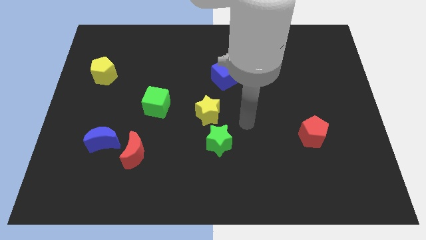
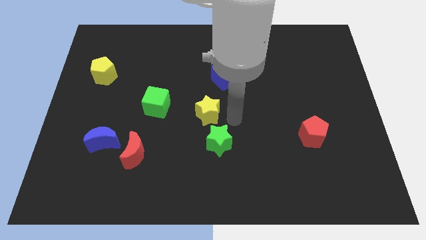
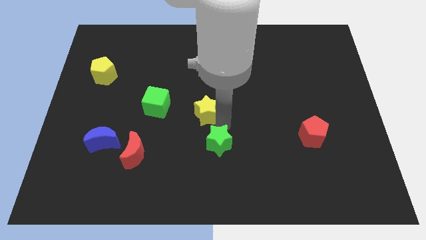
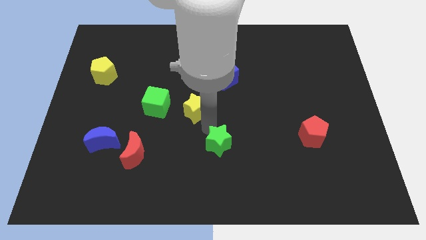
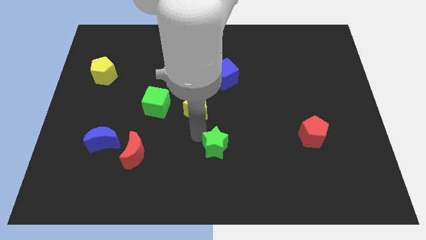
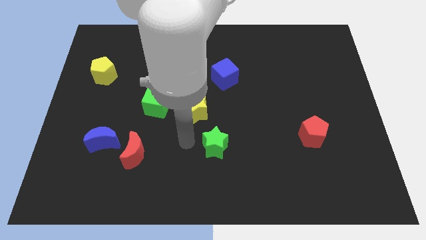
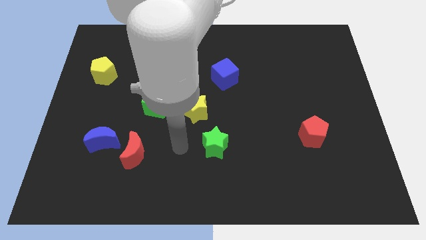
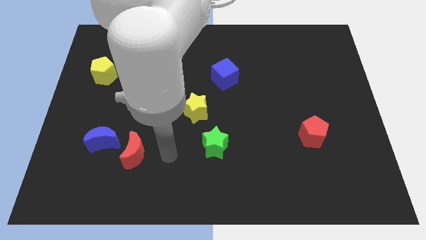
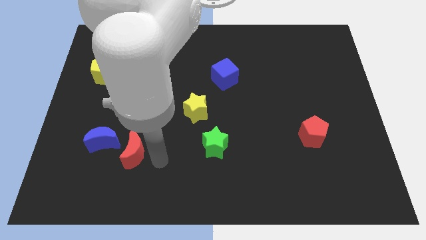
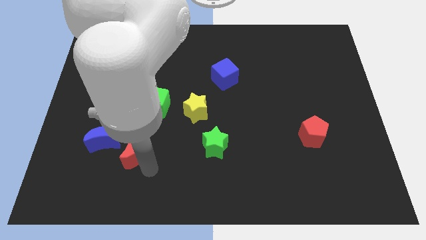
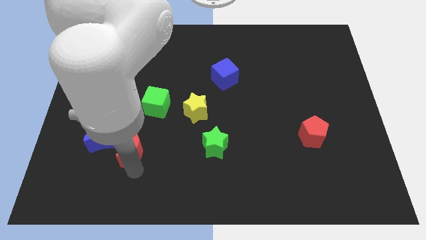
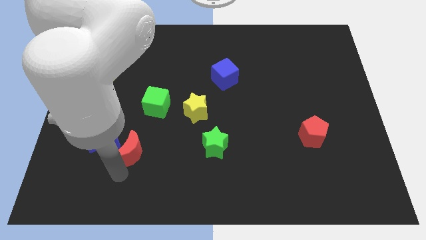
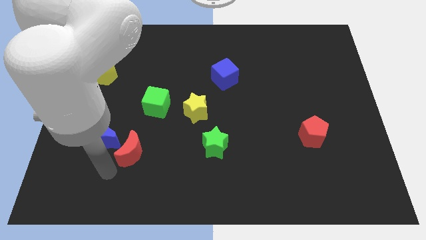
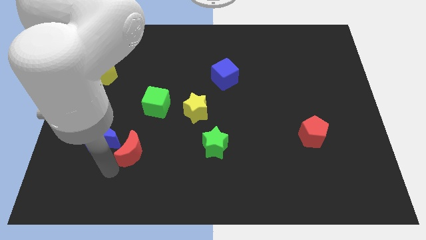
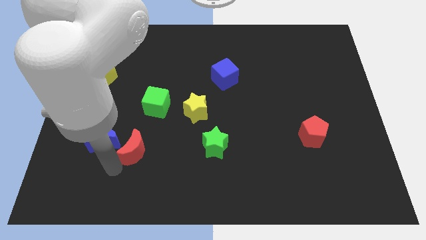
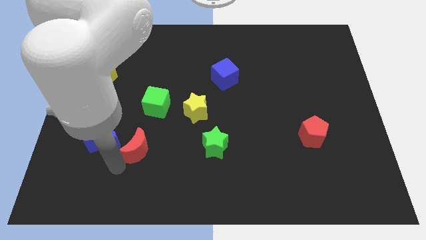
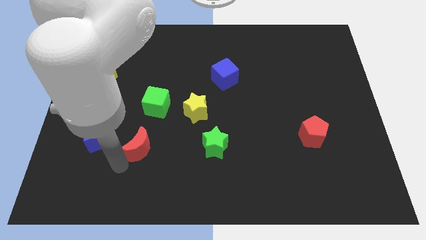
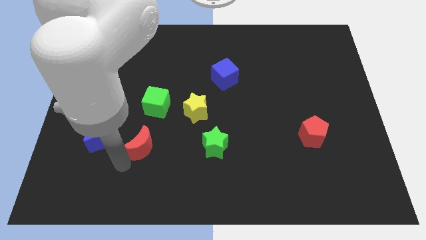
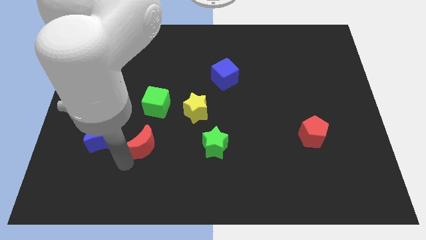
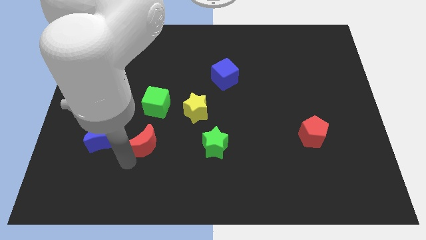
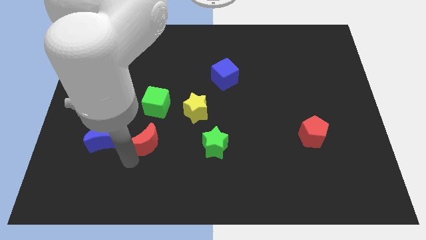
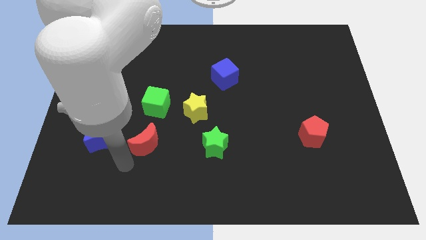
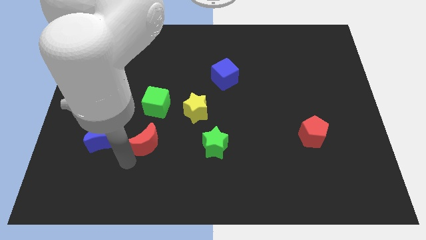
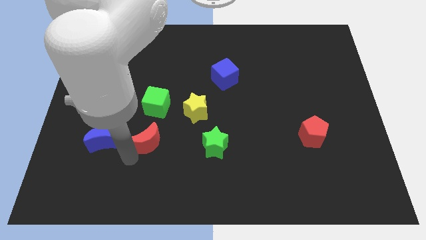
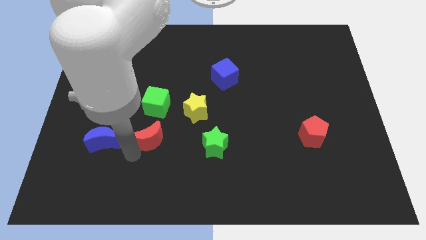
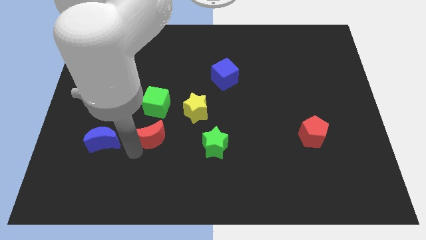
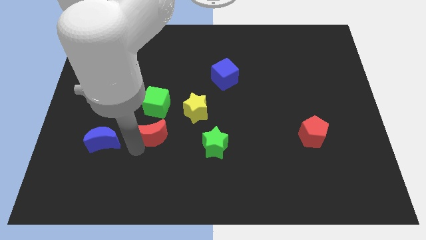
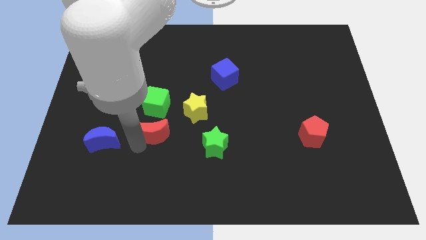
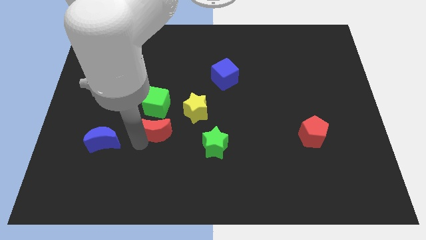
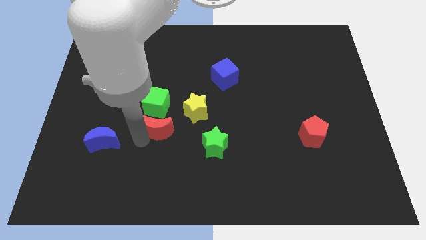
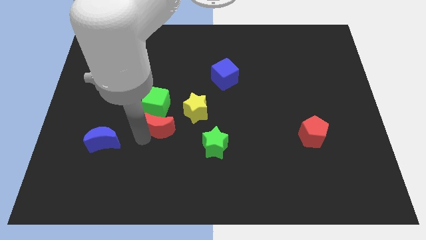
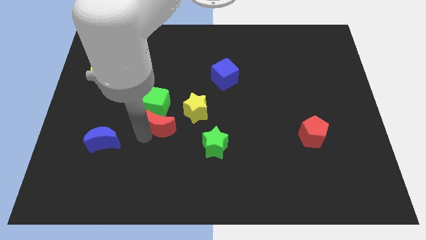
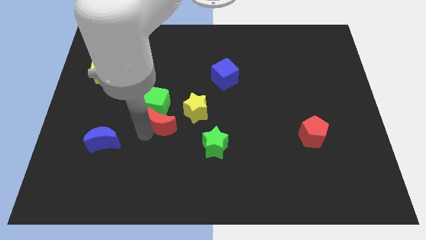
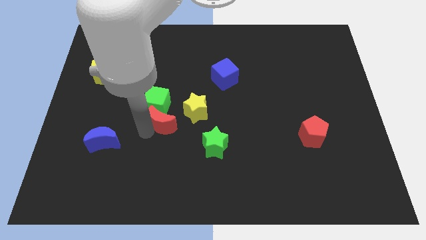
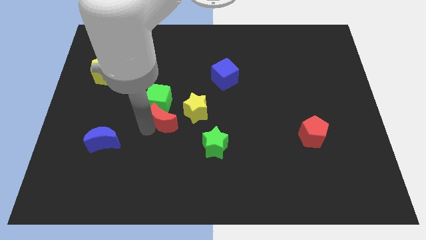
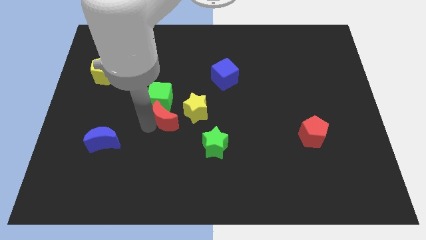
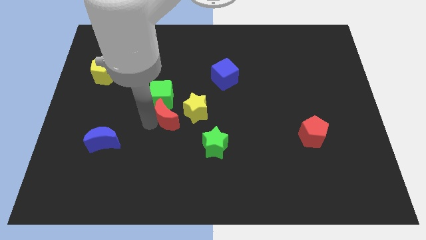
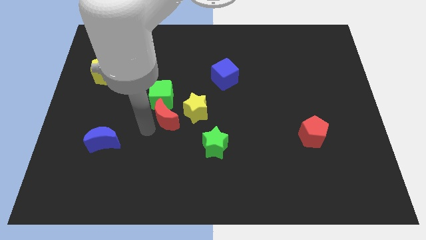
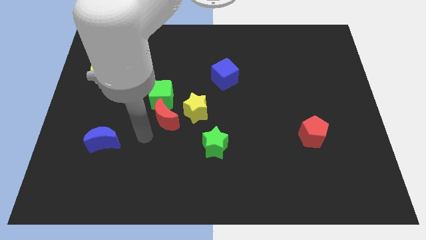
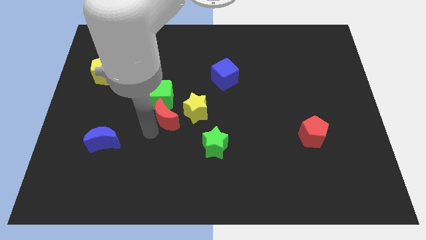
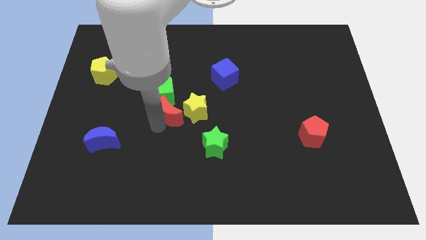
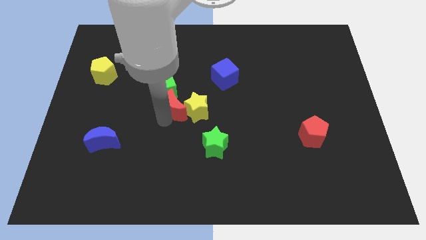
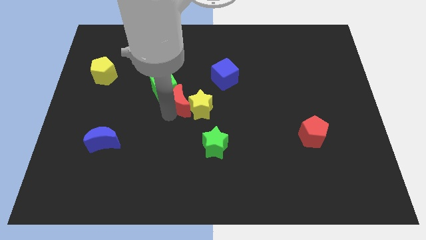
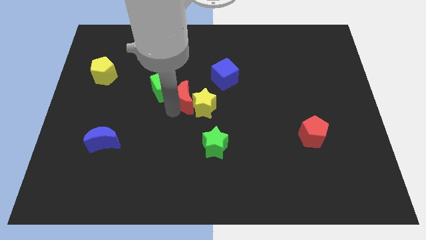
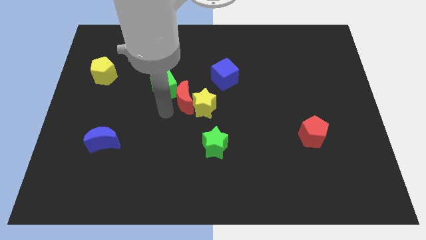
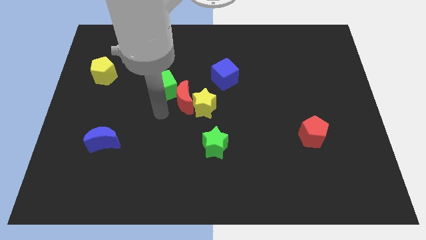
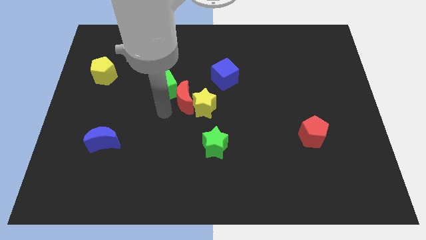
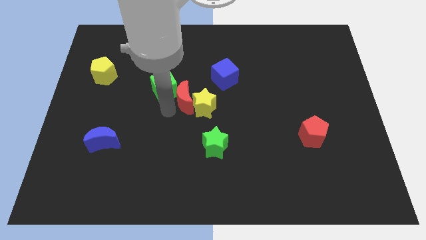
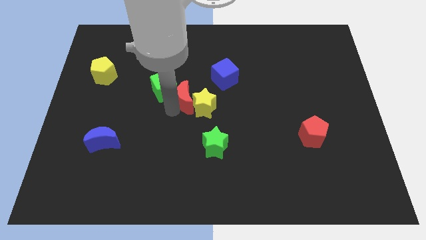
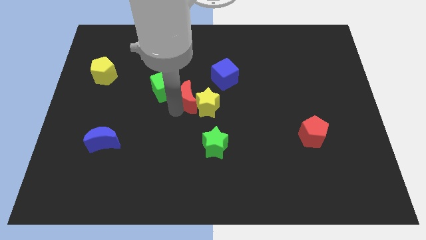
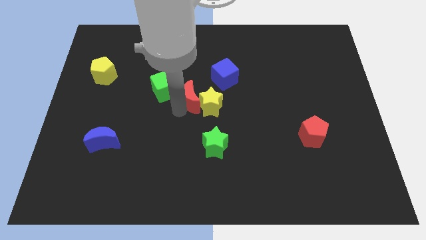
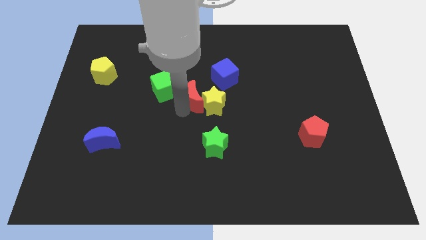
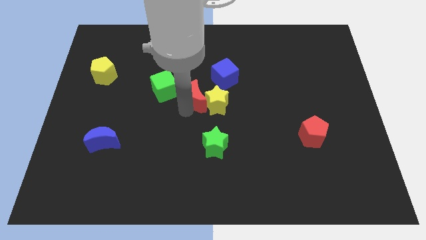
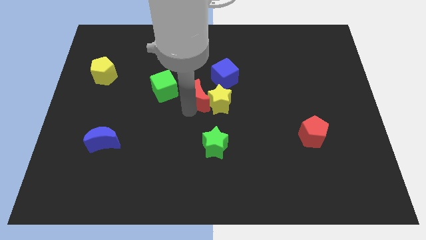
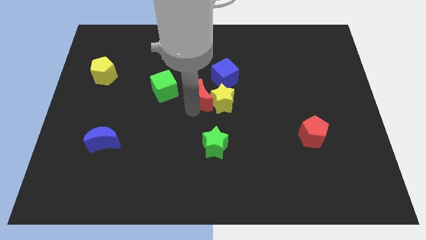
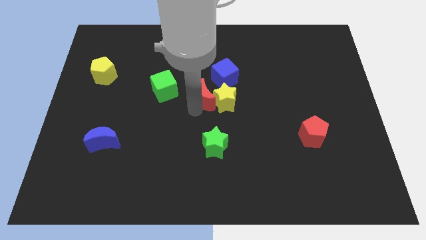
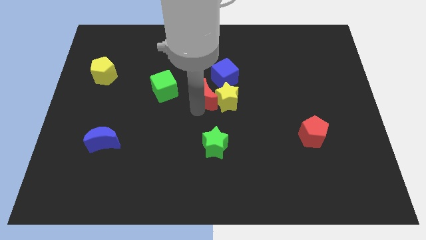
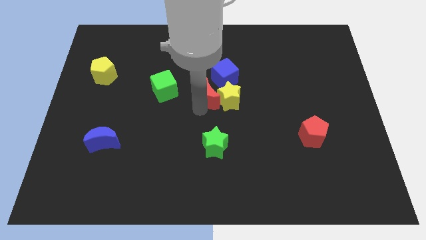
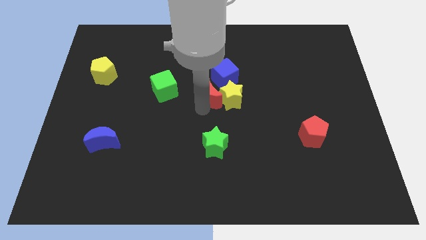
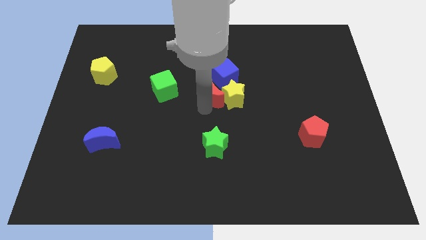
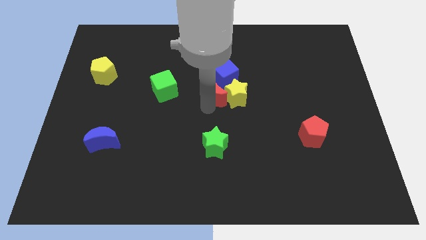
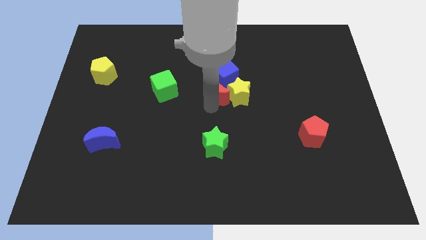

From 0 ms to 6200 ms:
slide the red moon next to the blue cube
